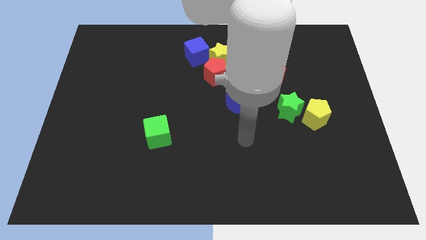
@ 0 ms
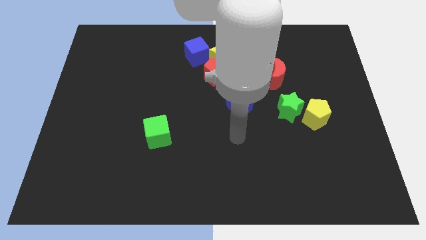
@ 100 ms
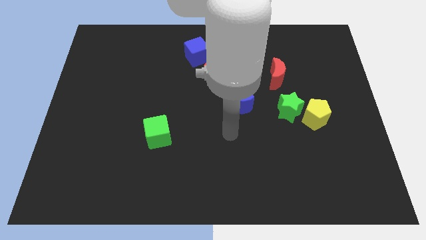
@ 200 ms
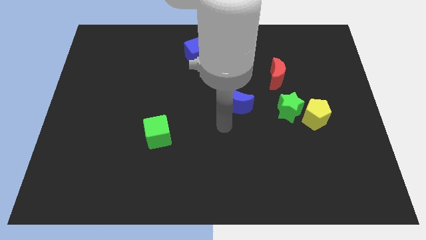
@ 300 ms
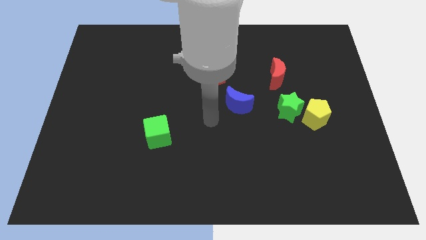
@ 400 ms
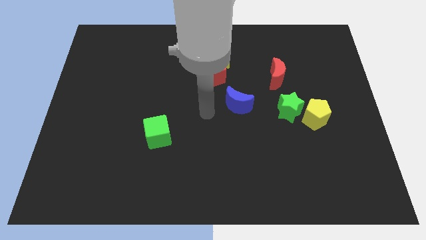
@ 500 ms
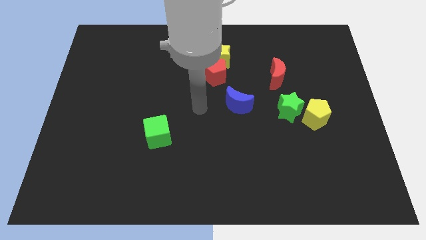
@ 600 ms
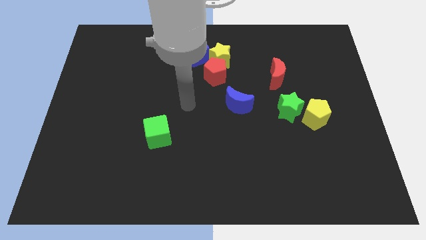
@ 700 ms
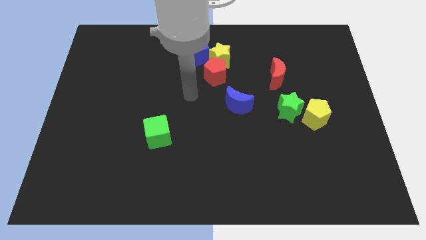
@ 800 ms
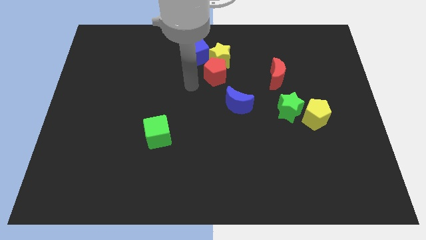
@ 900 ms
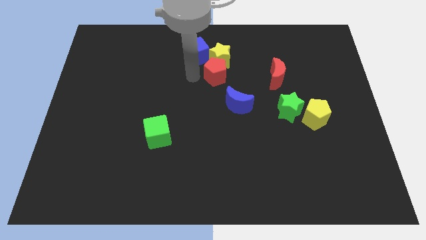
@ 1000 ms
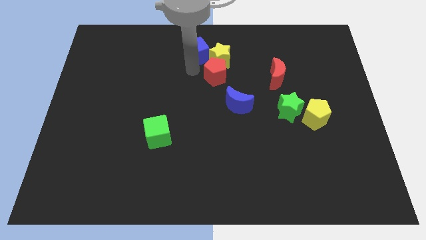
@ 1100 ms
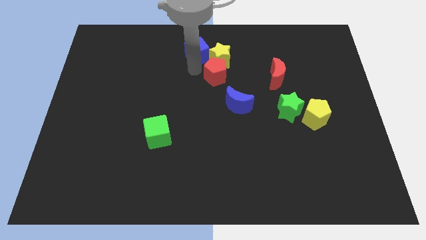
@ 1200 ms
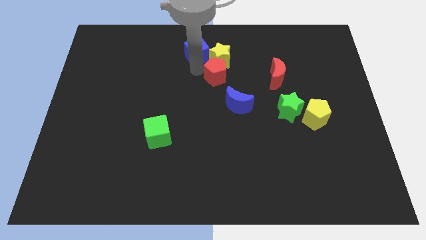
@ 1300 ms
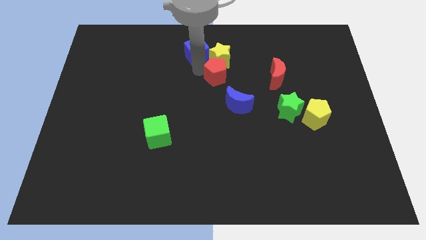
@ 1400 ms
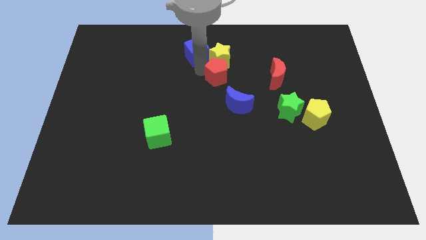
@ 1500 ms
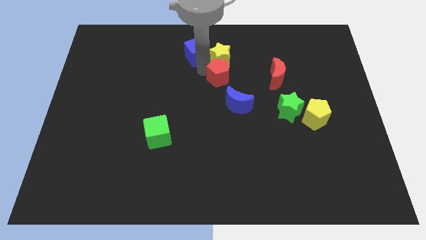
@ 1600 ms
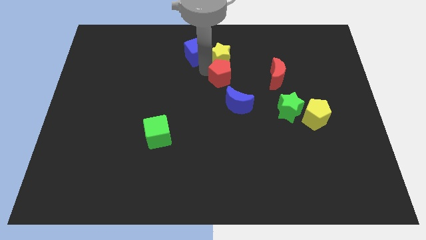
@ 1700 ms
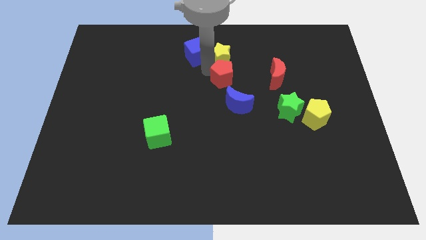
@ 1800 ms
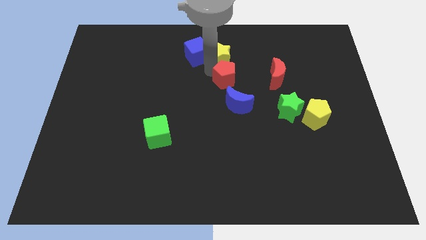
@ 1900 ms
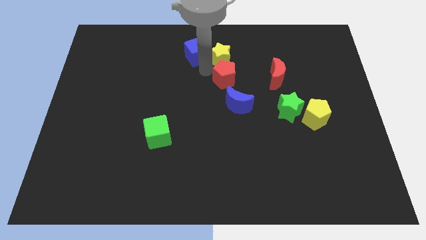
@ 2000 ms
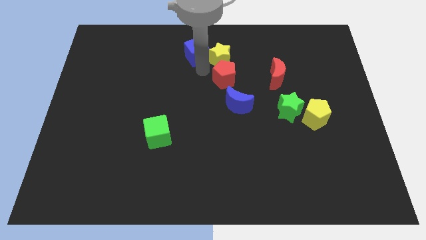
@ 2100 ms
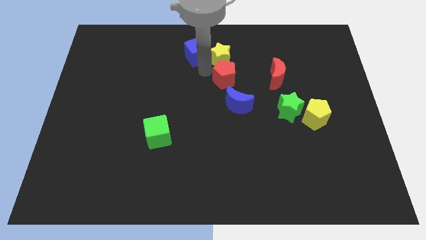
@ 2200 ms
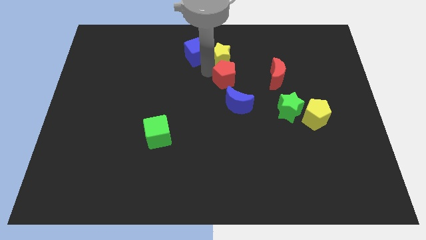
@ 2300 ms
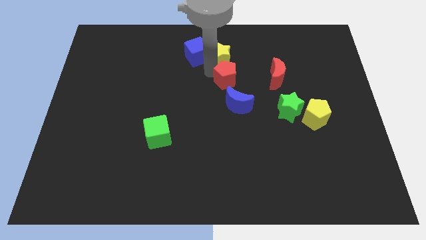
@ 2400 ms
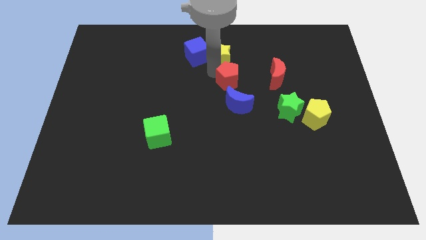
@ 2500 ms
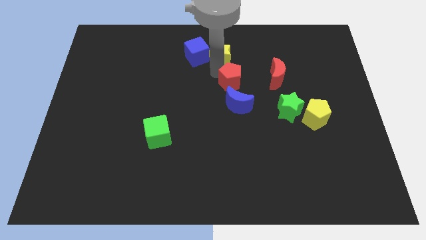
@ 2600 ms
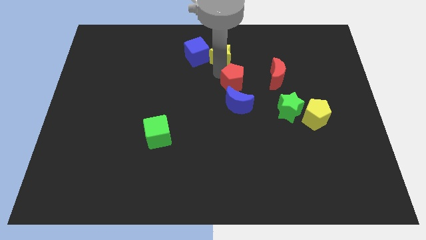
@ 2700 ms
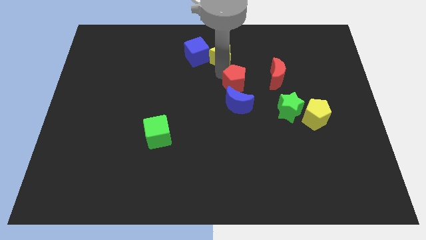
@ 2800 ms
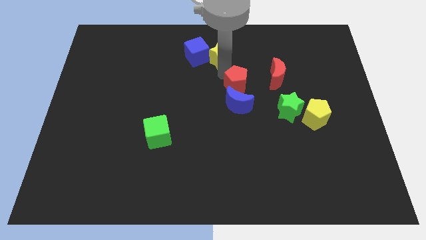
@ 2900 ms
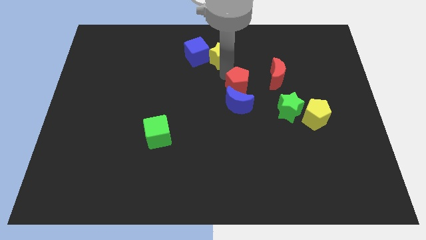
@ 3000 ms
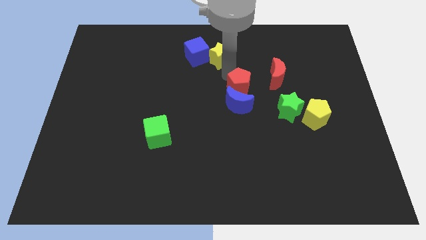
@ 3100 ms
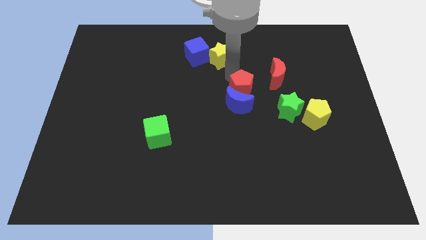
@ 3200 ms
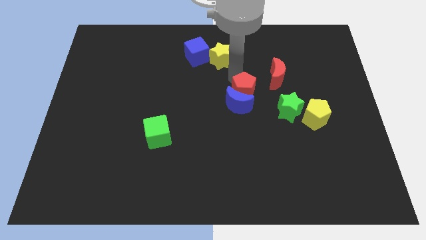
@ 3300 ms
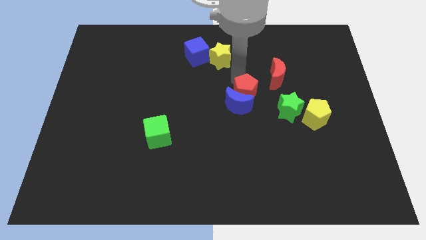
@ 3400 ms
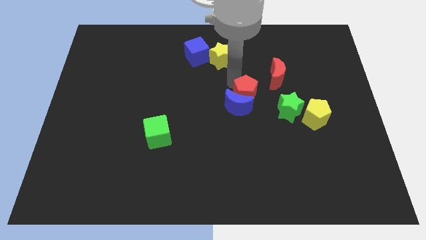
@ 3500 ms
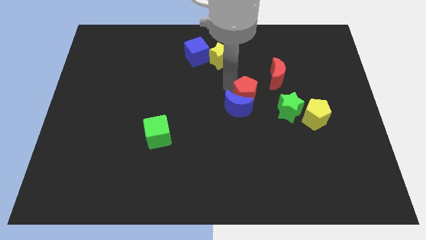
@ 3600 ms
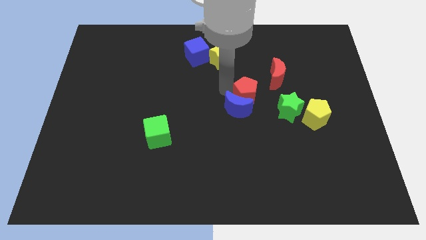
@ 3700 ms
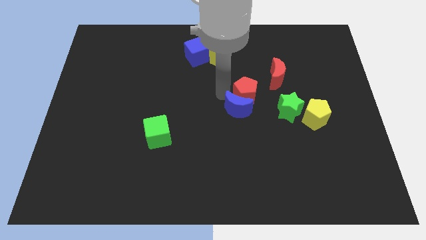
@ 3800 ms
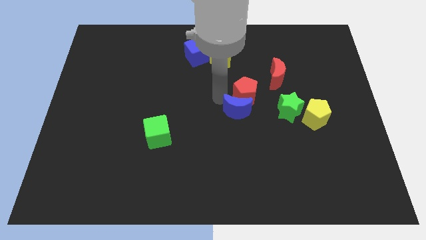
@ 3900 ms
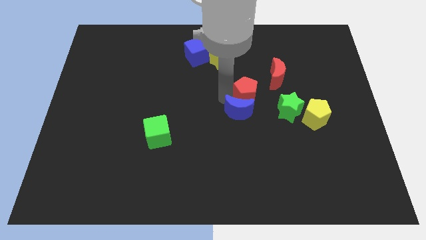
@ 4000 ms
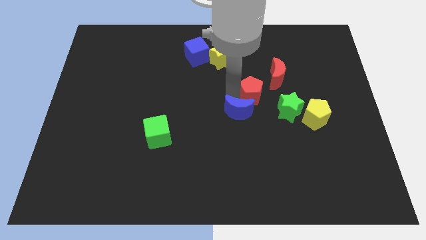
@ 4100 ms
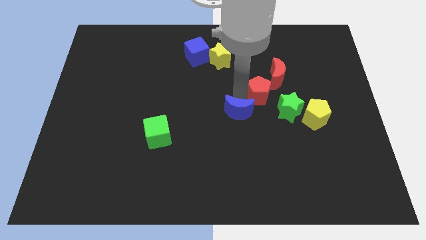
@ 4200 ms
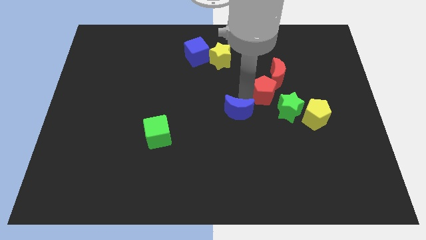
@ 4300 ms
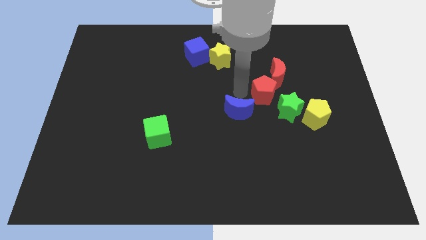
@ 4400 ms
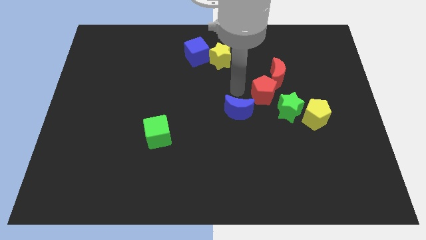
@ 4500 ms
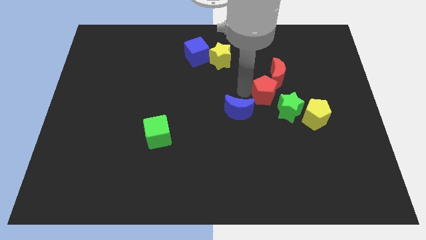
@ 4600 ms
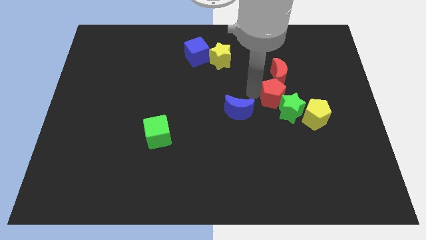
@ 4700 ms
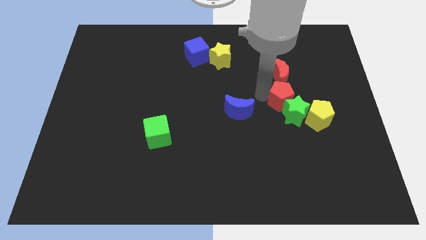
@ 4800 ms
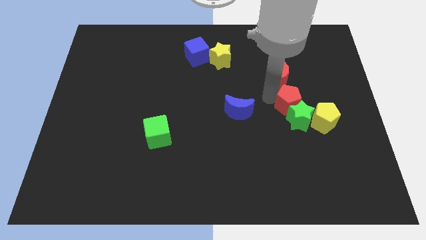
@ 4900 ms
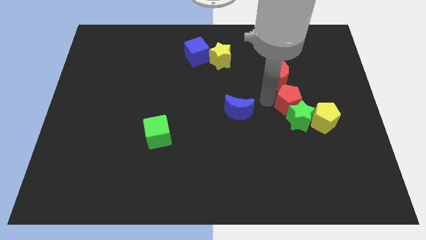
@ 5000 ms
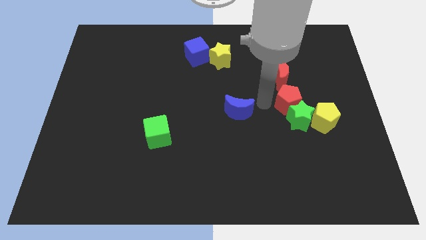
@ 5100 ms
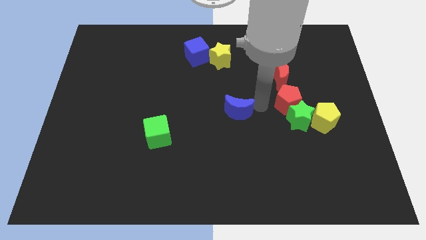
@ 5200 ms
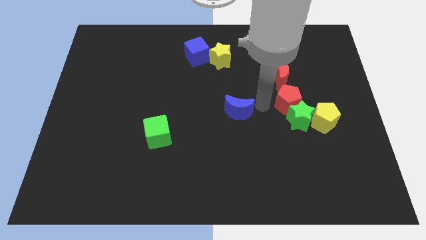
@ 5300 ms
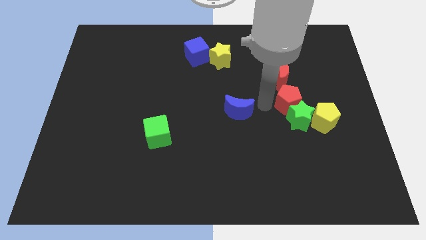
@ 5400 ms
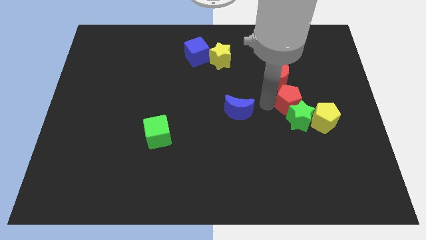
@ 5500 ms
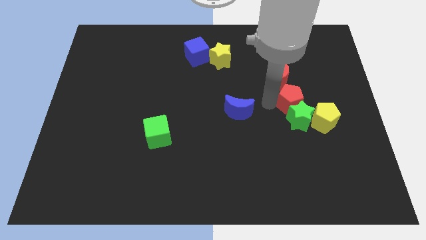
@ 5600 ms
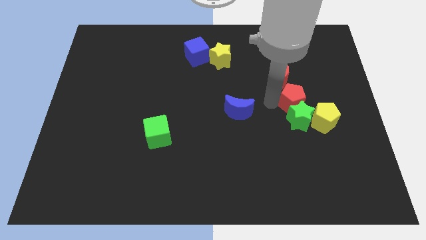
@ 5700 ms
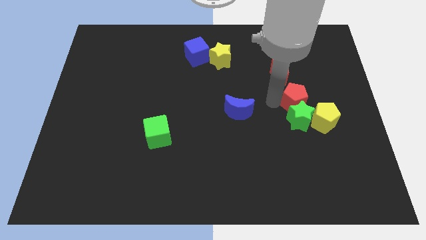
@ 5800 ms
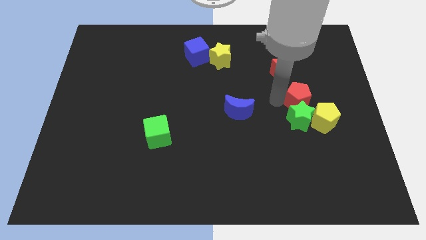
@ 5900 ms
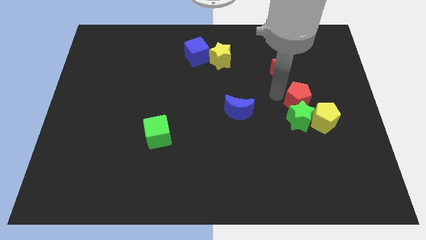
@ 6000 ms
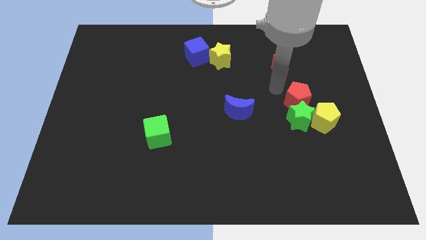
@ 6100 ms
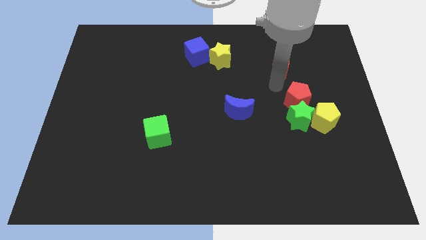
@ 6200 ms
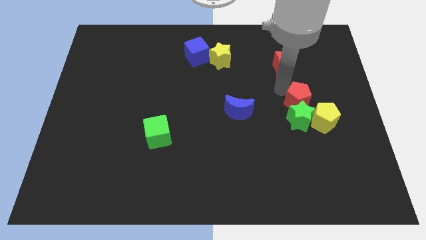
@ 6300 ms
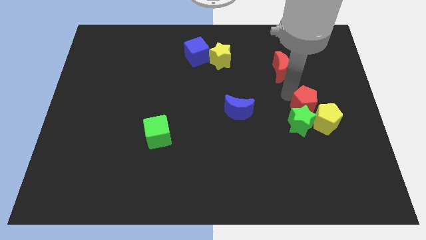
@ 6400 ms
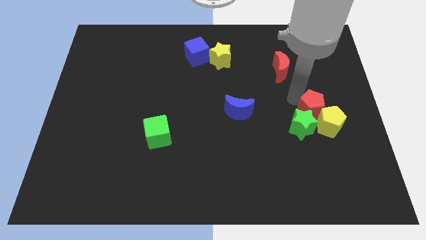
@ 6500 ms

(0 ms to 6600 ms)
slide the red pentagon next to the yellow pentagon
